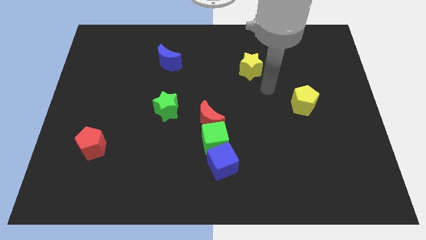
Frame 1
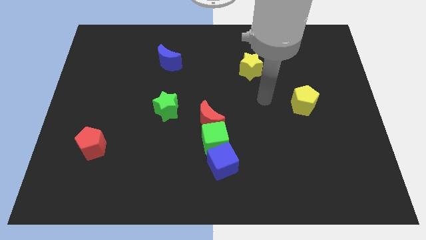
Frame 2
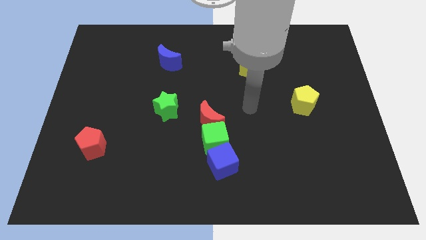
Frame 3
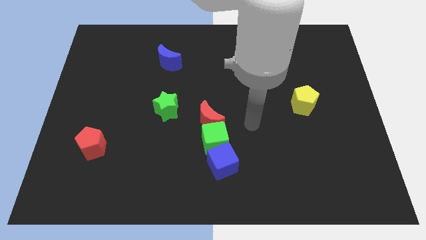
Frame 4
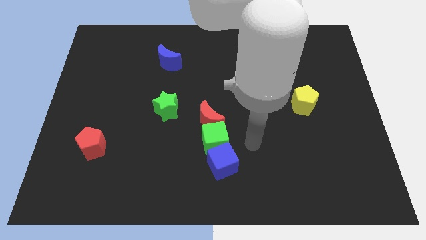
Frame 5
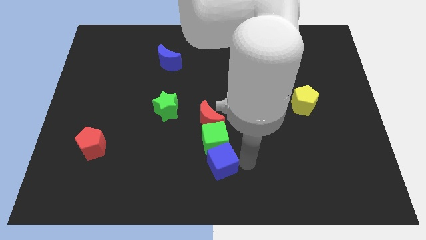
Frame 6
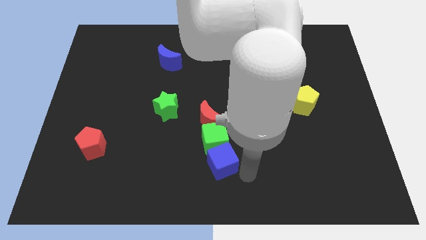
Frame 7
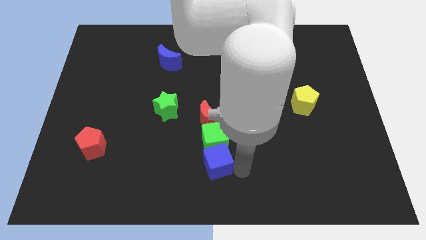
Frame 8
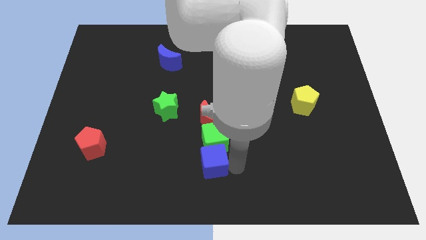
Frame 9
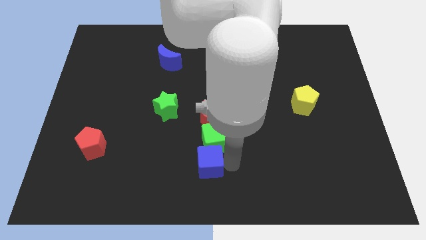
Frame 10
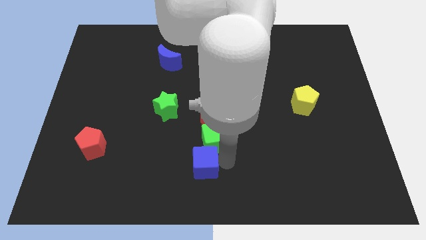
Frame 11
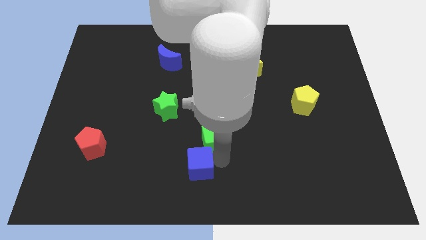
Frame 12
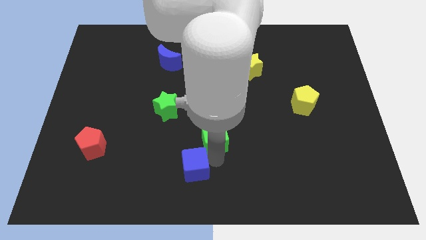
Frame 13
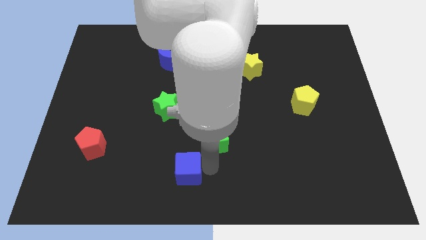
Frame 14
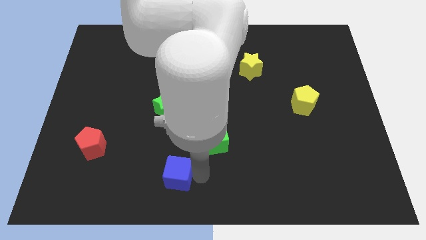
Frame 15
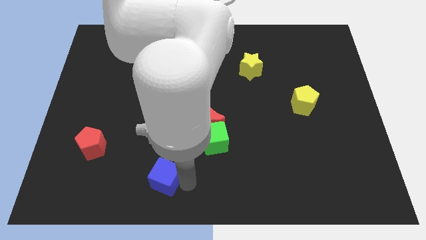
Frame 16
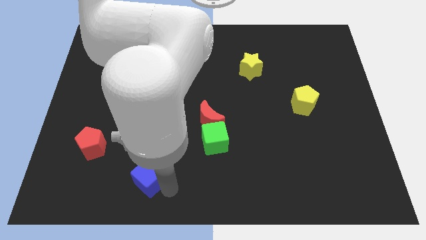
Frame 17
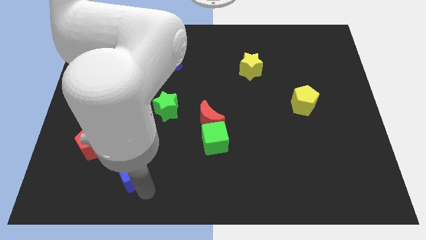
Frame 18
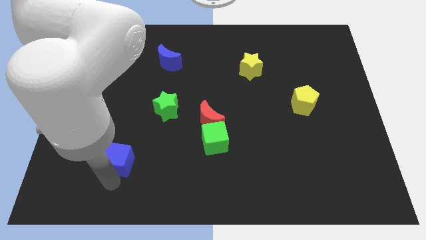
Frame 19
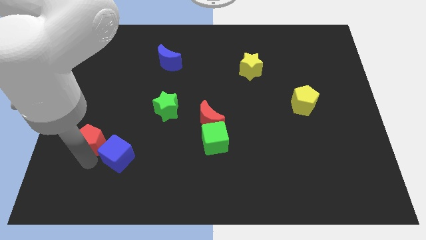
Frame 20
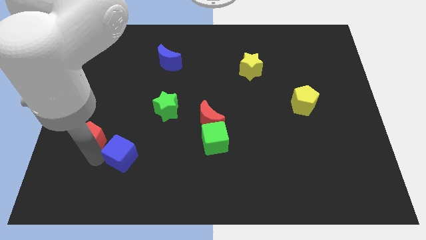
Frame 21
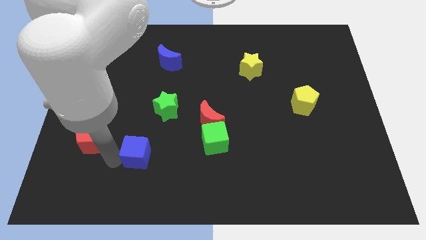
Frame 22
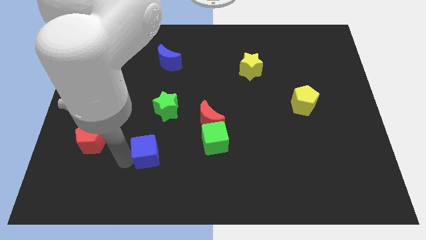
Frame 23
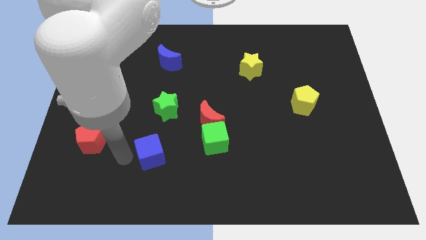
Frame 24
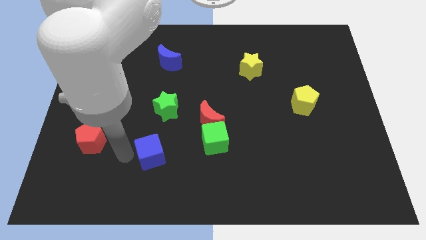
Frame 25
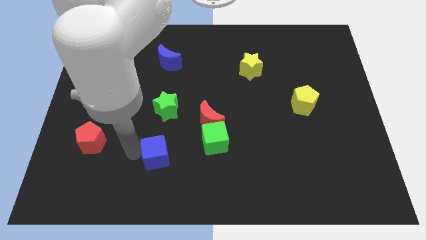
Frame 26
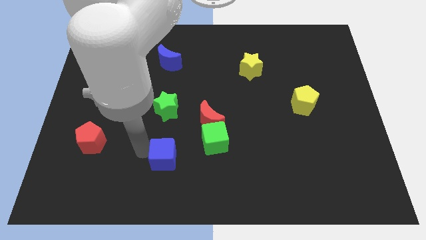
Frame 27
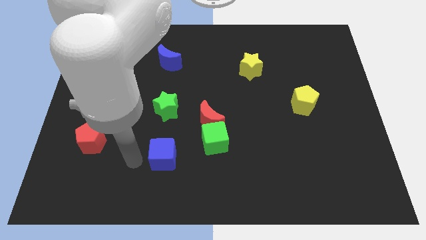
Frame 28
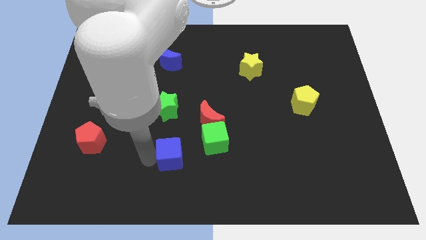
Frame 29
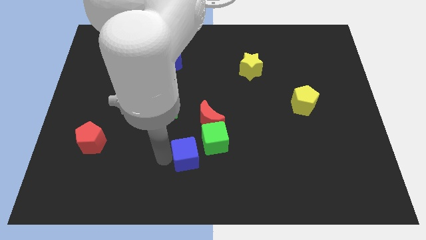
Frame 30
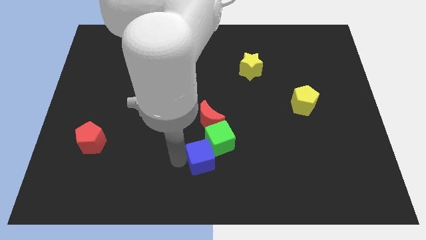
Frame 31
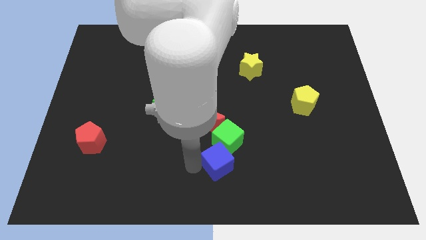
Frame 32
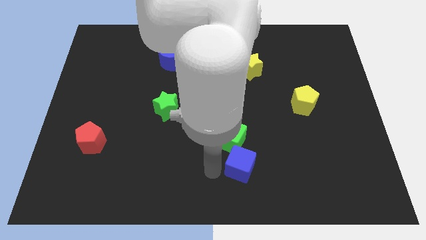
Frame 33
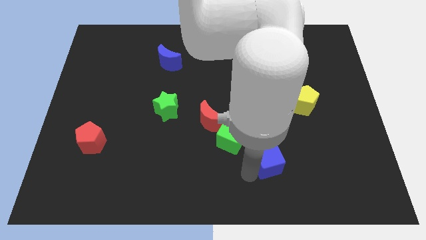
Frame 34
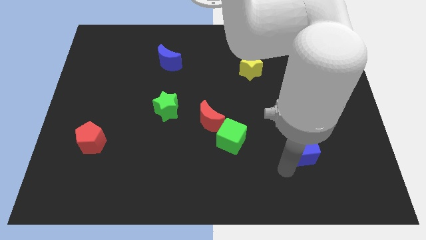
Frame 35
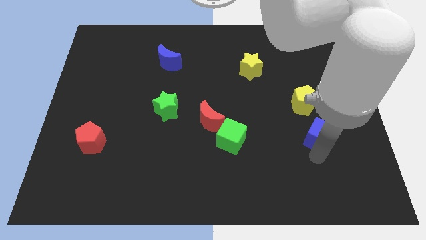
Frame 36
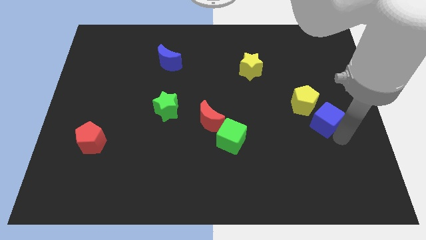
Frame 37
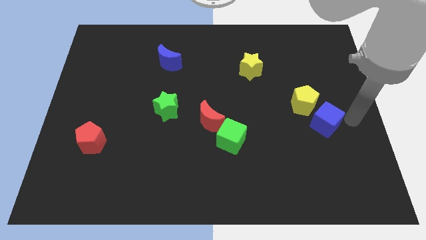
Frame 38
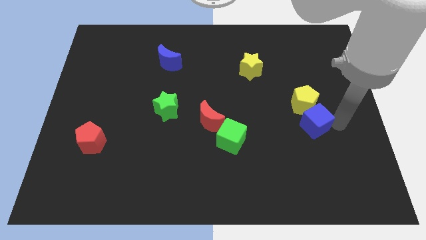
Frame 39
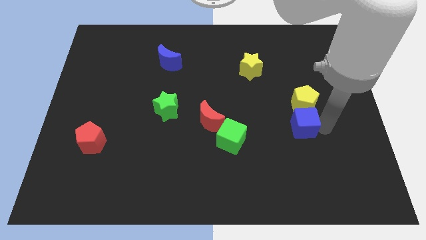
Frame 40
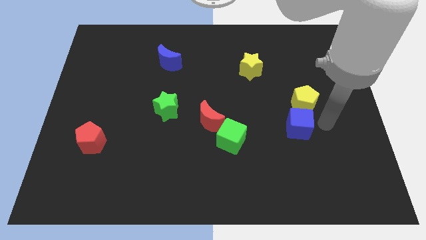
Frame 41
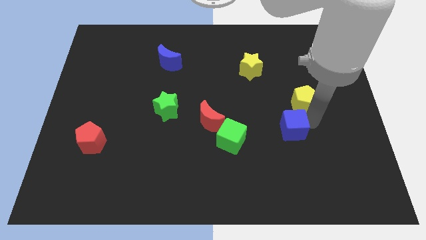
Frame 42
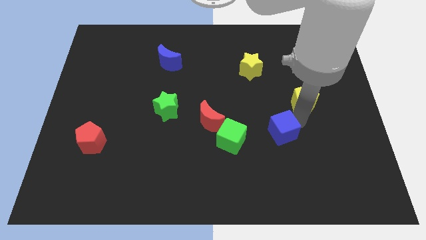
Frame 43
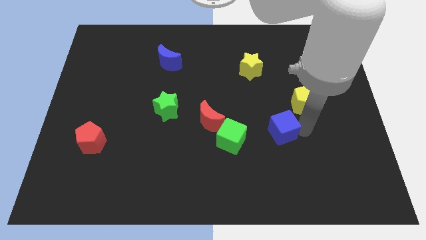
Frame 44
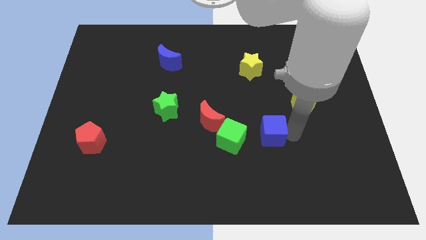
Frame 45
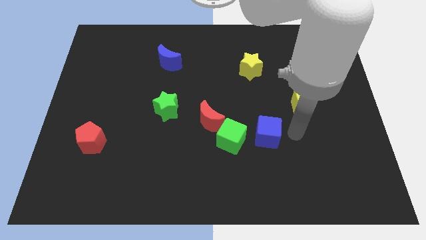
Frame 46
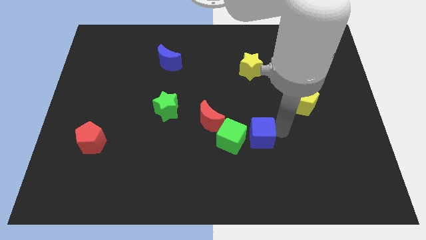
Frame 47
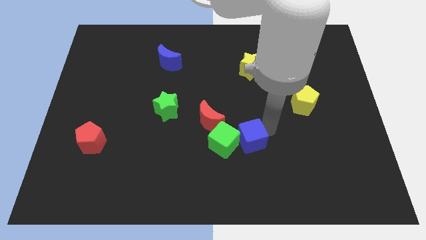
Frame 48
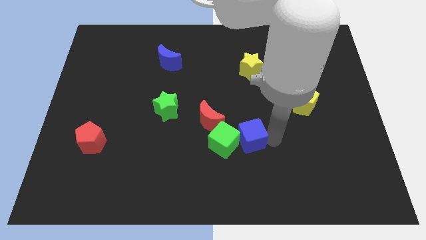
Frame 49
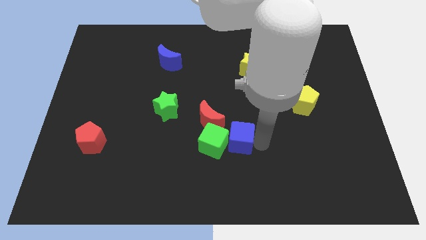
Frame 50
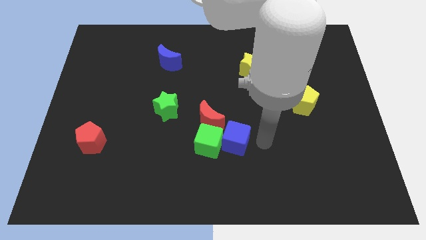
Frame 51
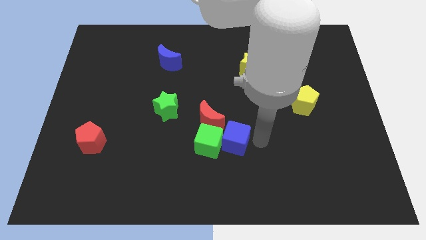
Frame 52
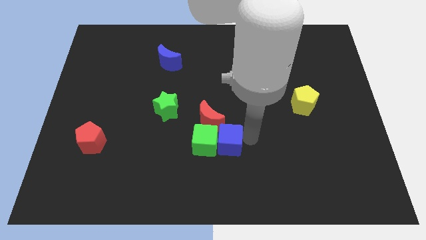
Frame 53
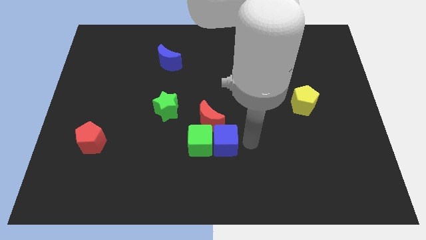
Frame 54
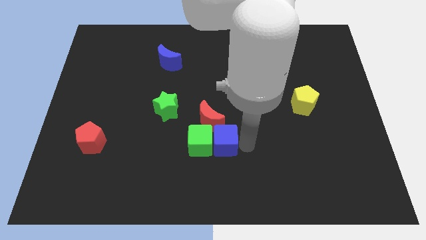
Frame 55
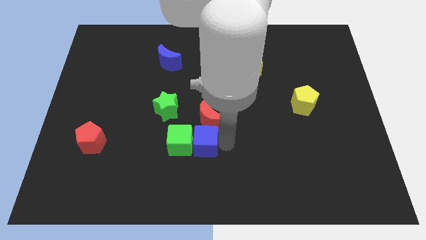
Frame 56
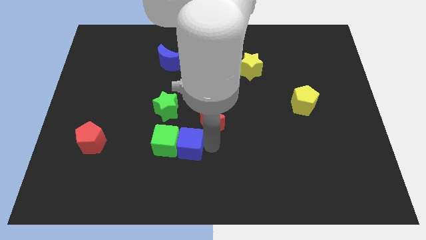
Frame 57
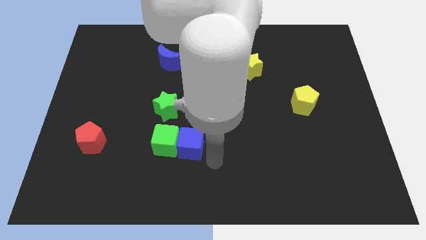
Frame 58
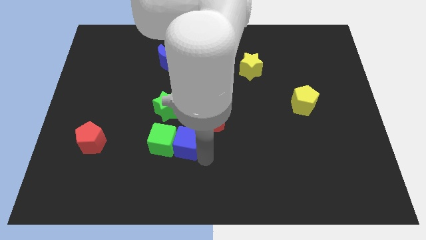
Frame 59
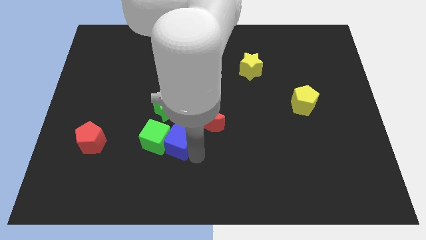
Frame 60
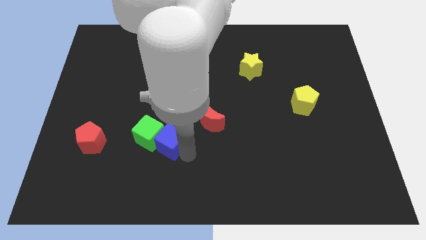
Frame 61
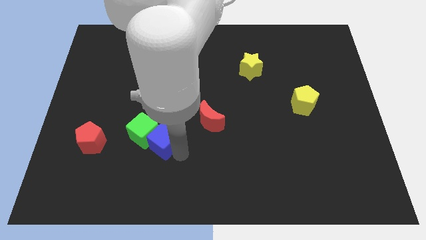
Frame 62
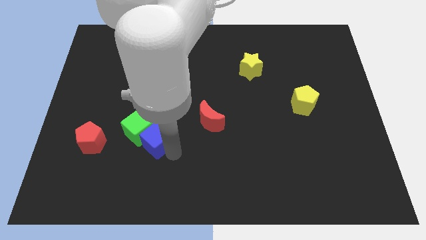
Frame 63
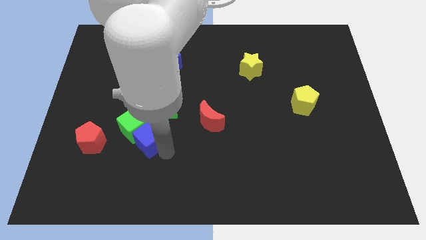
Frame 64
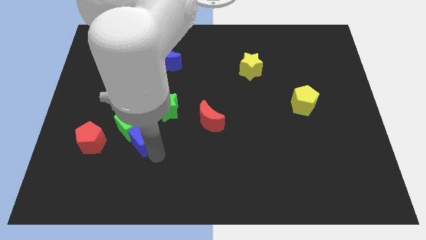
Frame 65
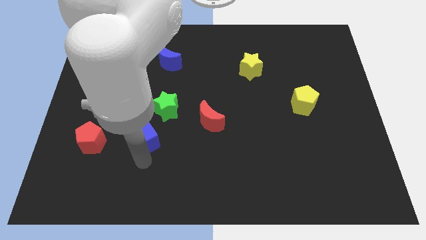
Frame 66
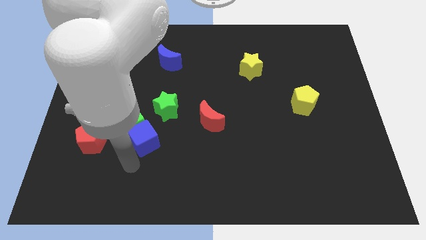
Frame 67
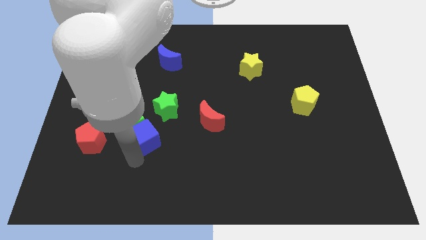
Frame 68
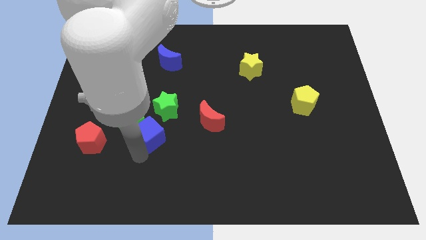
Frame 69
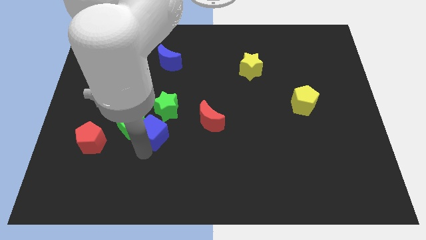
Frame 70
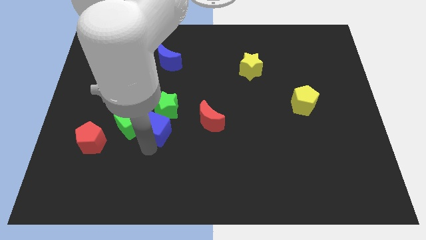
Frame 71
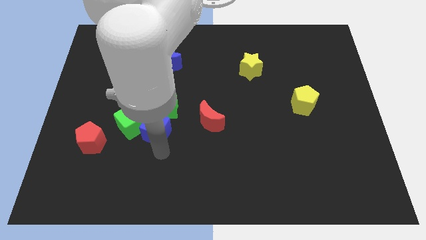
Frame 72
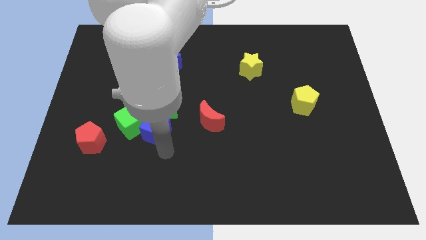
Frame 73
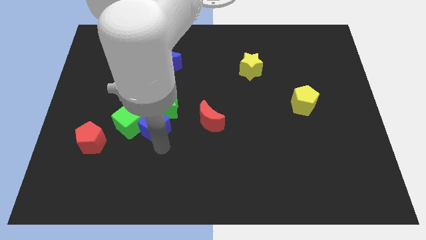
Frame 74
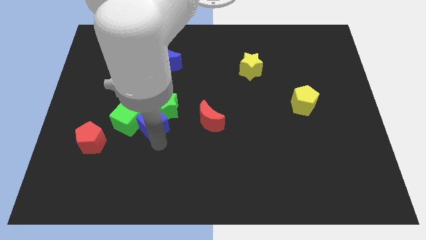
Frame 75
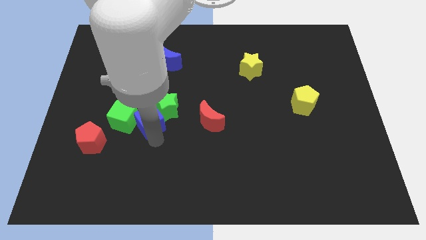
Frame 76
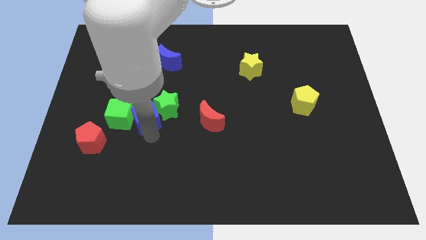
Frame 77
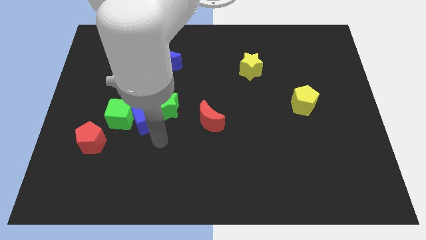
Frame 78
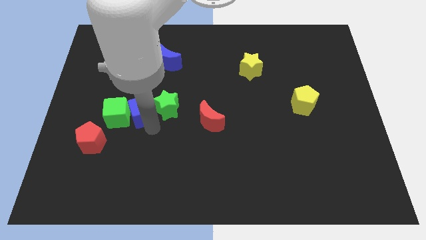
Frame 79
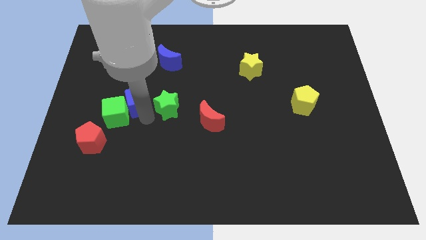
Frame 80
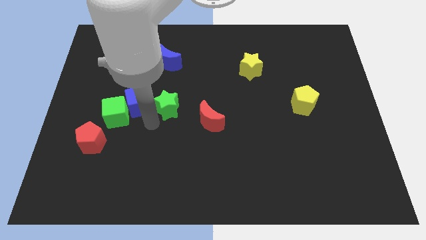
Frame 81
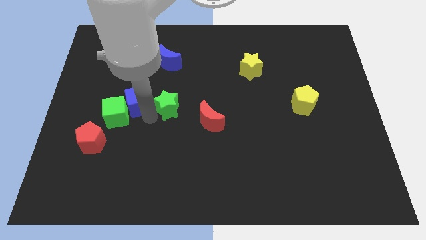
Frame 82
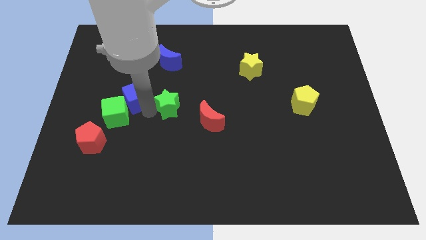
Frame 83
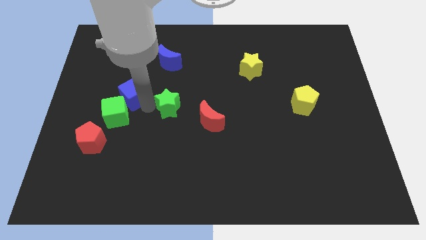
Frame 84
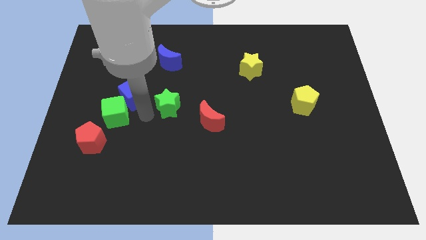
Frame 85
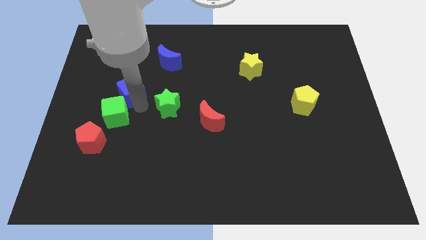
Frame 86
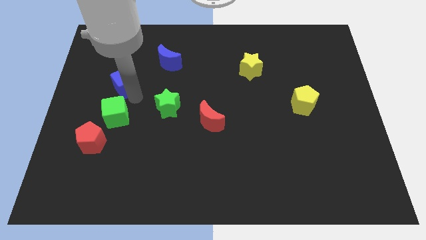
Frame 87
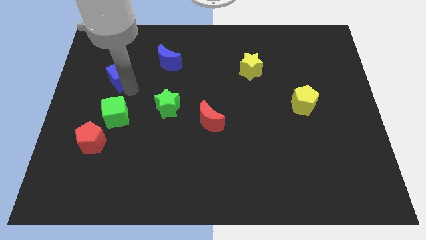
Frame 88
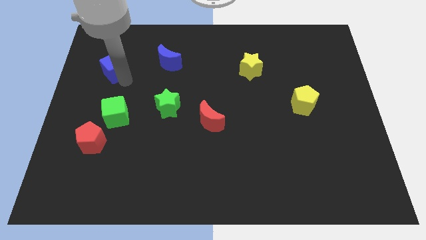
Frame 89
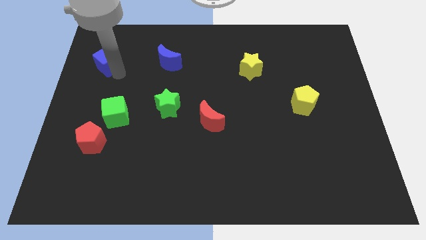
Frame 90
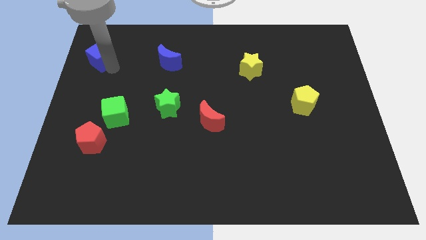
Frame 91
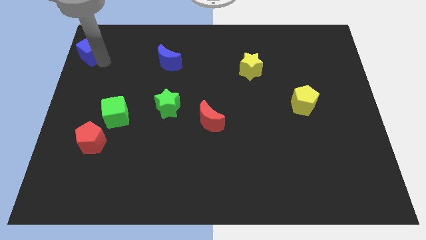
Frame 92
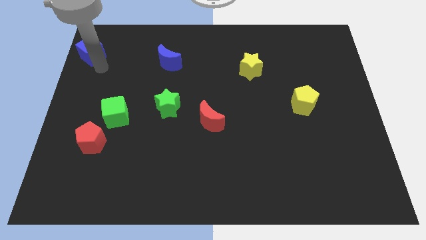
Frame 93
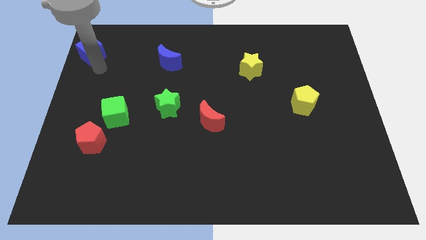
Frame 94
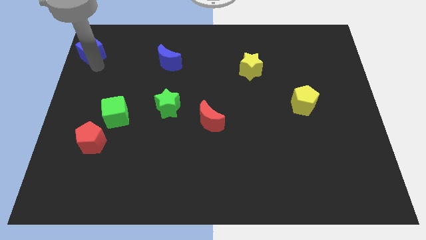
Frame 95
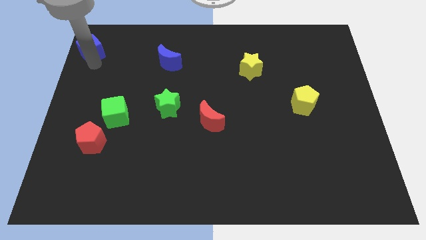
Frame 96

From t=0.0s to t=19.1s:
slide the blue cube to the top left
